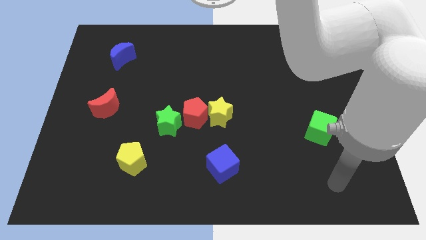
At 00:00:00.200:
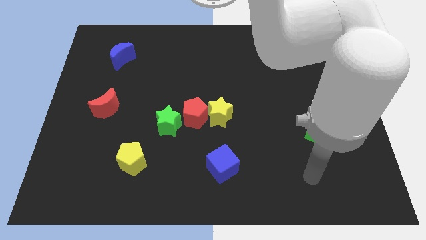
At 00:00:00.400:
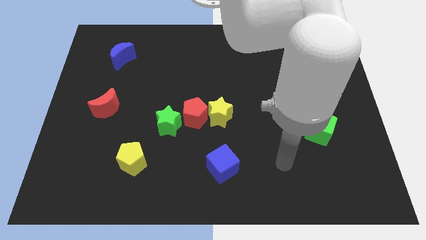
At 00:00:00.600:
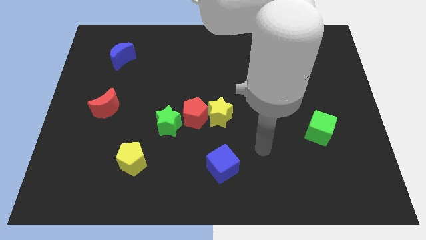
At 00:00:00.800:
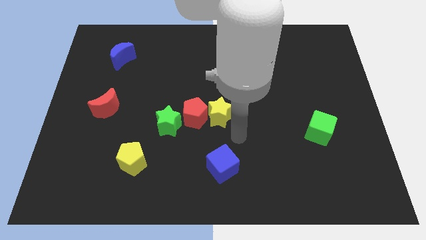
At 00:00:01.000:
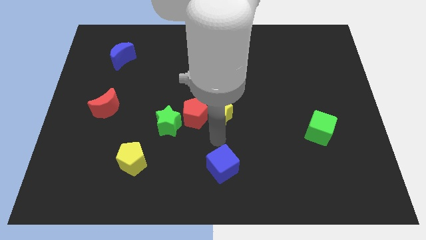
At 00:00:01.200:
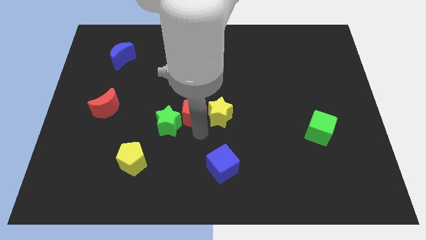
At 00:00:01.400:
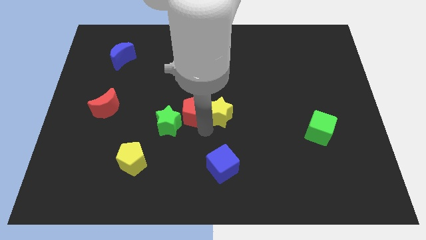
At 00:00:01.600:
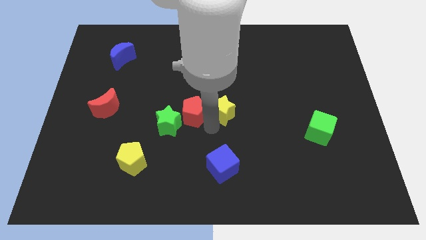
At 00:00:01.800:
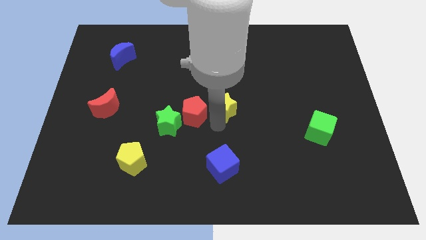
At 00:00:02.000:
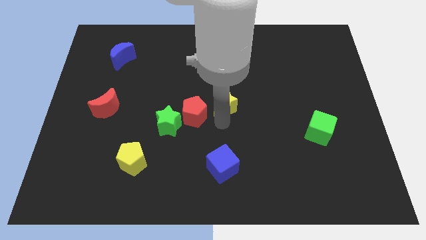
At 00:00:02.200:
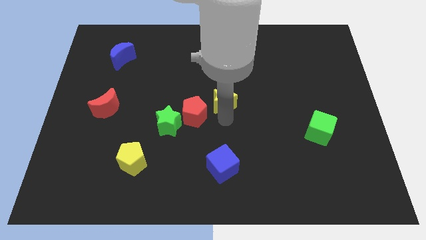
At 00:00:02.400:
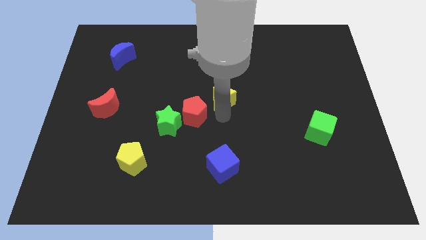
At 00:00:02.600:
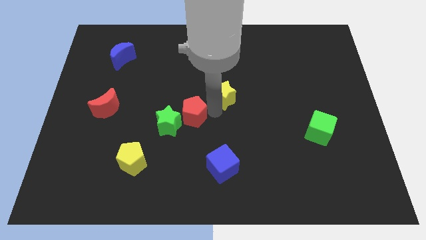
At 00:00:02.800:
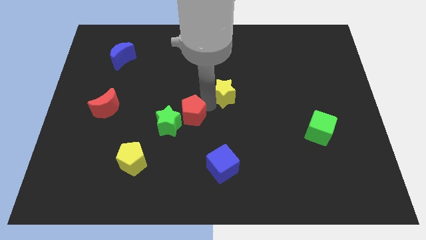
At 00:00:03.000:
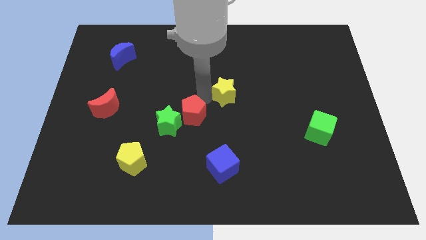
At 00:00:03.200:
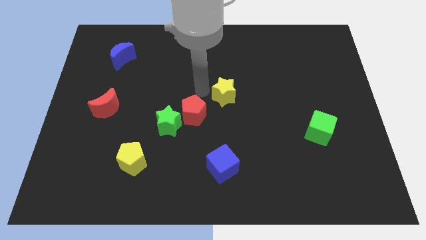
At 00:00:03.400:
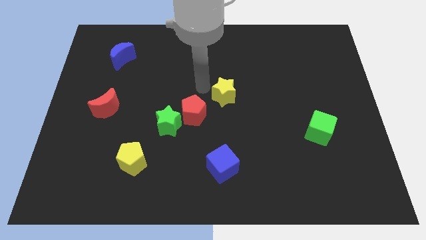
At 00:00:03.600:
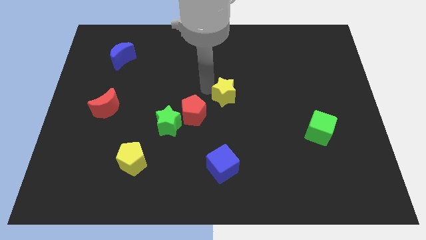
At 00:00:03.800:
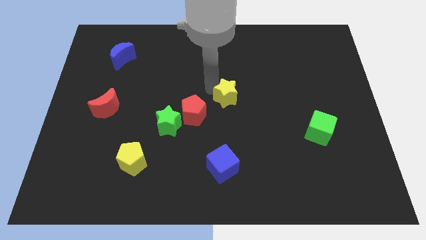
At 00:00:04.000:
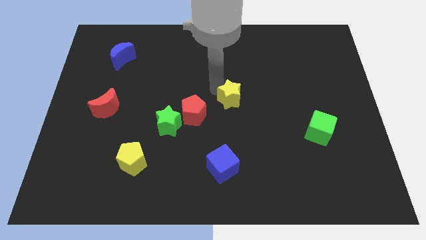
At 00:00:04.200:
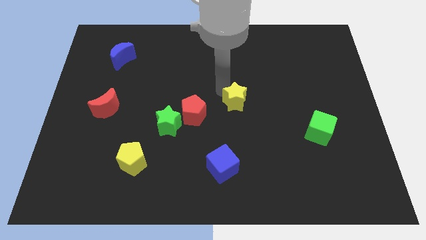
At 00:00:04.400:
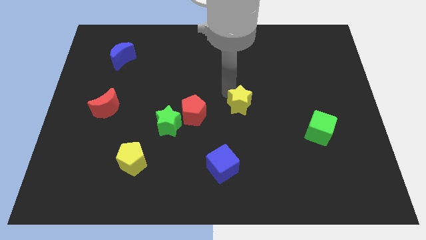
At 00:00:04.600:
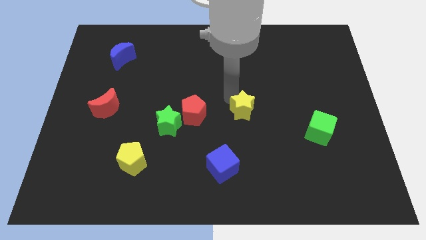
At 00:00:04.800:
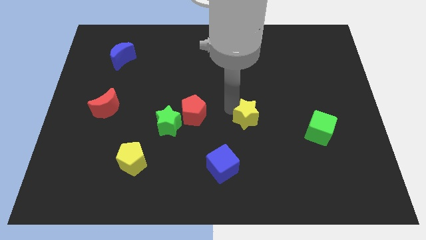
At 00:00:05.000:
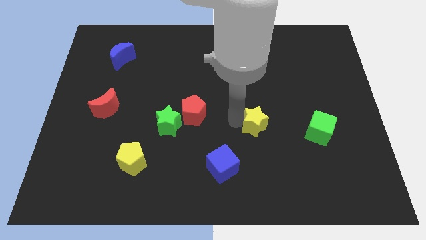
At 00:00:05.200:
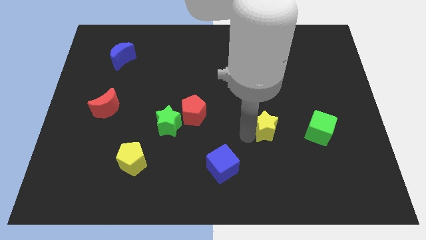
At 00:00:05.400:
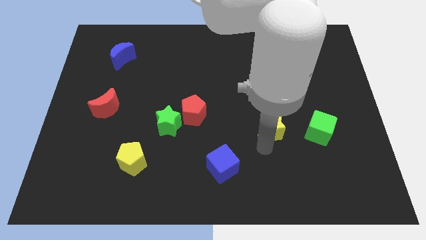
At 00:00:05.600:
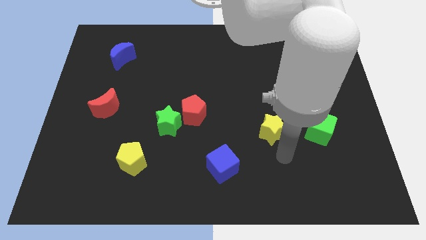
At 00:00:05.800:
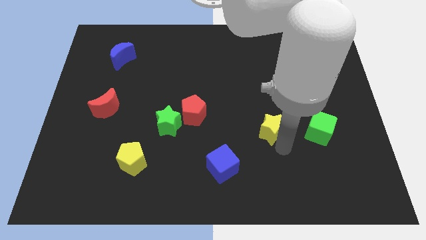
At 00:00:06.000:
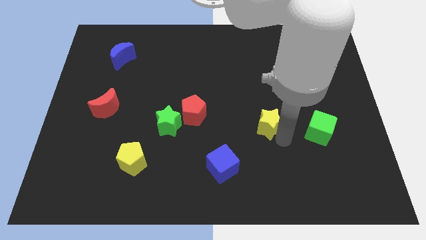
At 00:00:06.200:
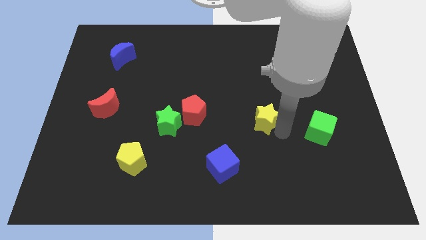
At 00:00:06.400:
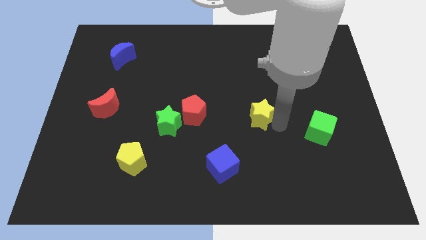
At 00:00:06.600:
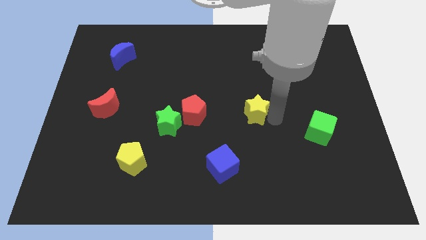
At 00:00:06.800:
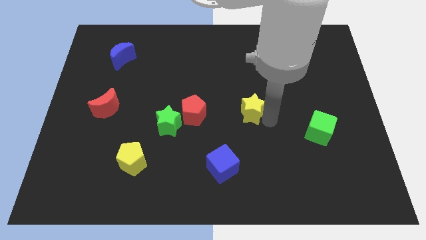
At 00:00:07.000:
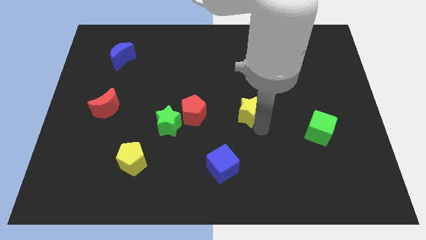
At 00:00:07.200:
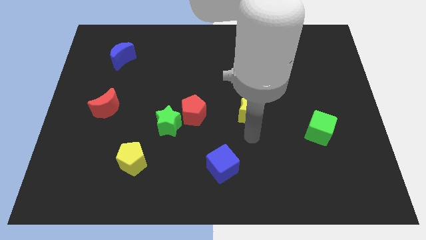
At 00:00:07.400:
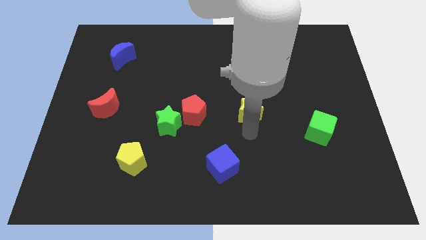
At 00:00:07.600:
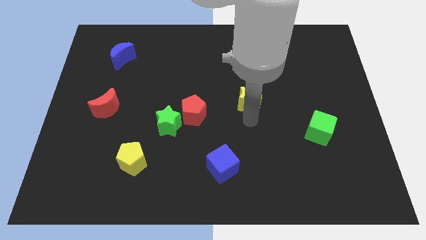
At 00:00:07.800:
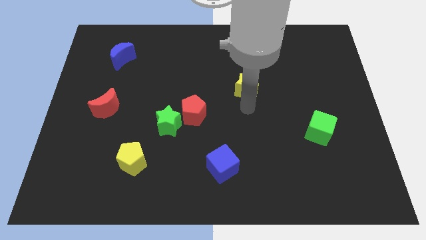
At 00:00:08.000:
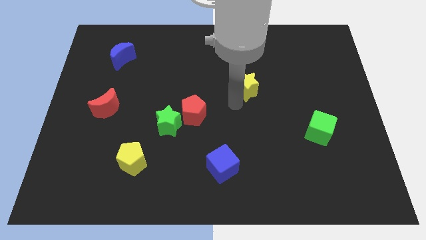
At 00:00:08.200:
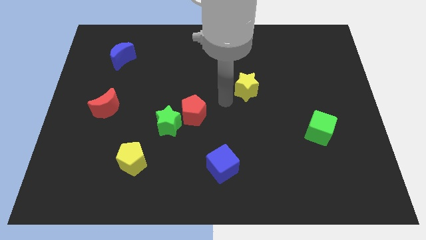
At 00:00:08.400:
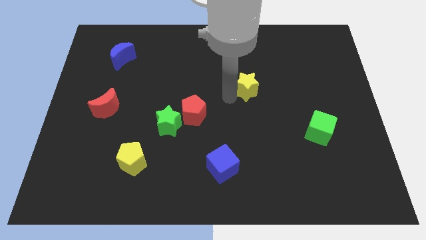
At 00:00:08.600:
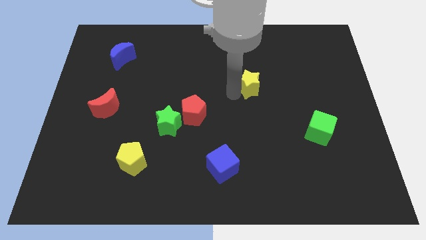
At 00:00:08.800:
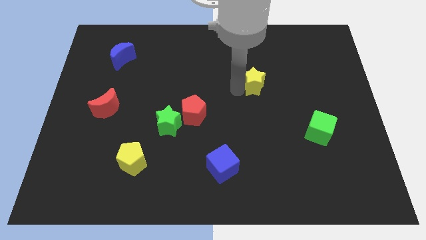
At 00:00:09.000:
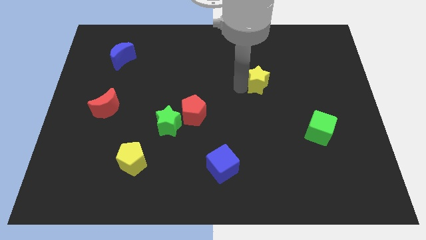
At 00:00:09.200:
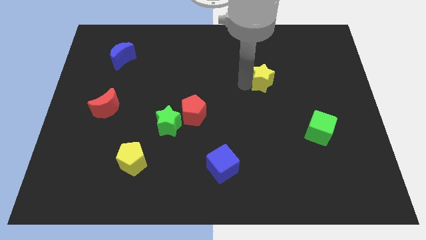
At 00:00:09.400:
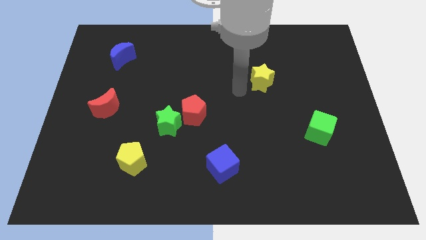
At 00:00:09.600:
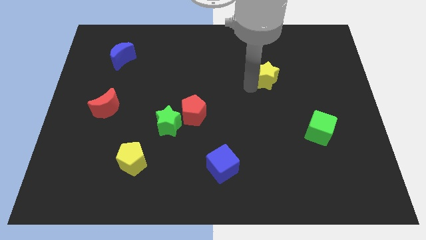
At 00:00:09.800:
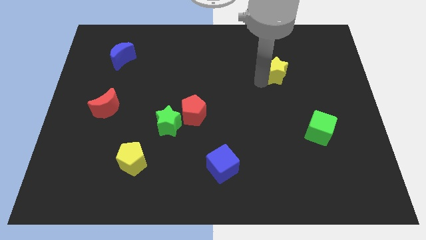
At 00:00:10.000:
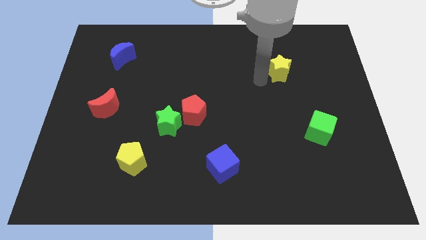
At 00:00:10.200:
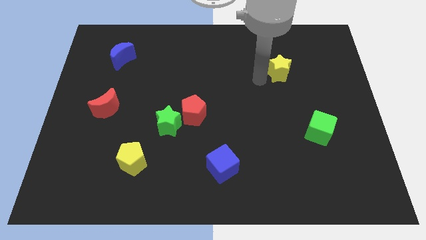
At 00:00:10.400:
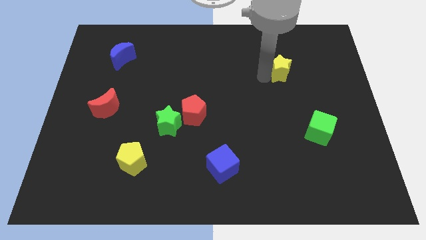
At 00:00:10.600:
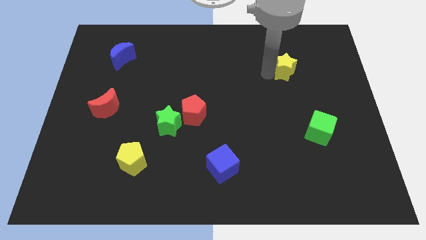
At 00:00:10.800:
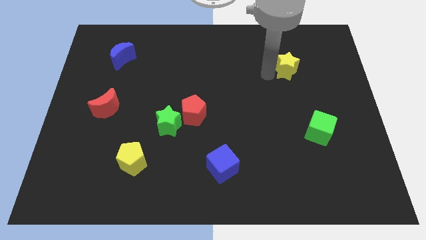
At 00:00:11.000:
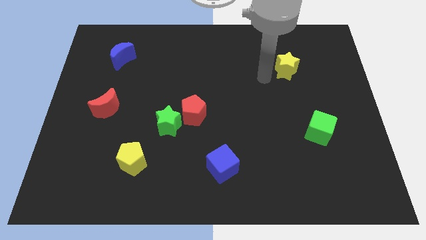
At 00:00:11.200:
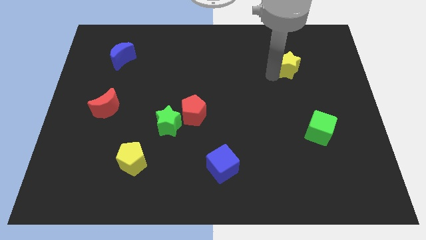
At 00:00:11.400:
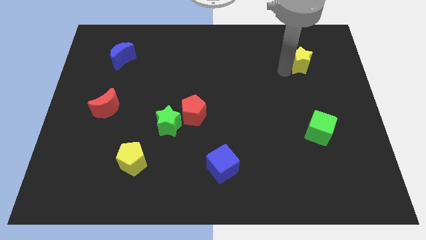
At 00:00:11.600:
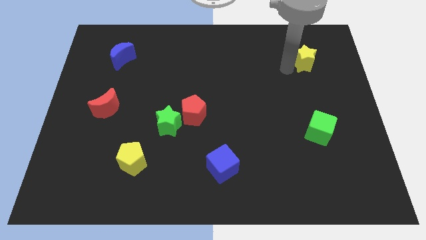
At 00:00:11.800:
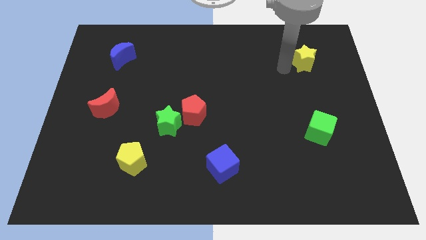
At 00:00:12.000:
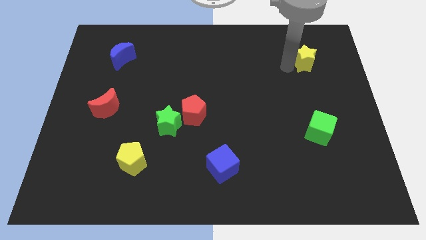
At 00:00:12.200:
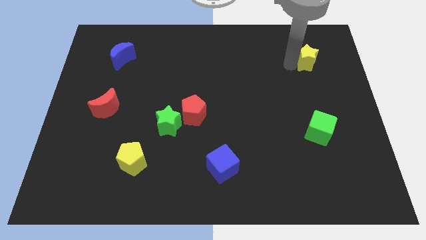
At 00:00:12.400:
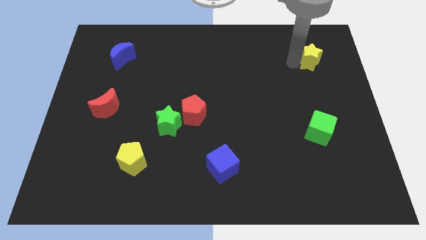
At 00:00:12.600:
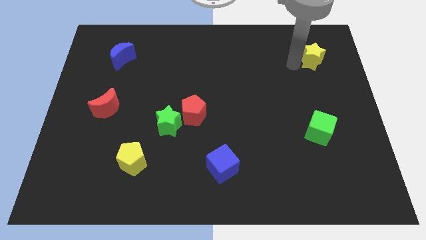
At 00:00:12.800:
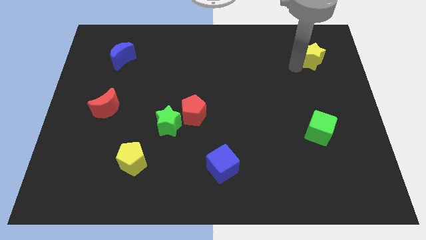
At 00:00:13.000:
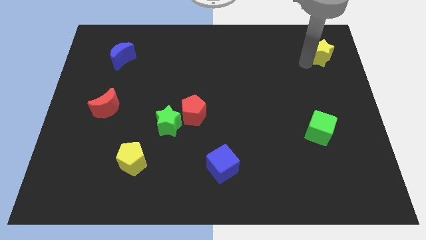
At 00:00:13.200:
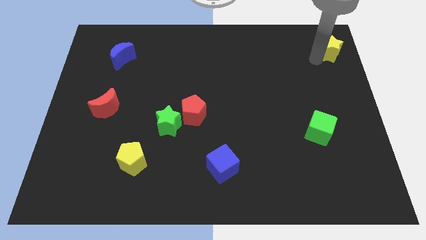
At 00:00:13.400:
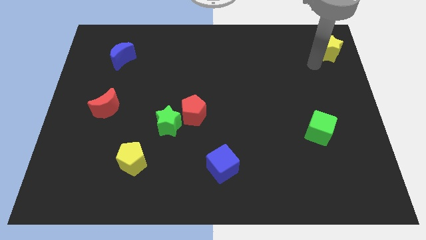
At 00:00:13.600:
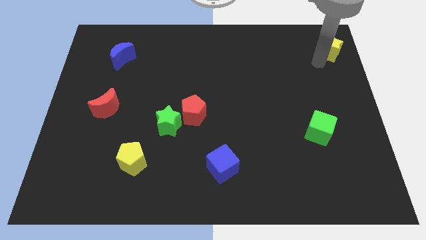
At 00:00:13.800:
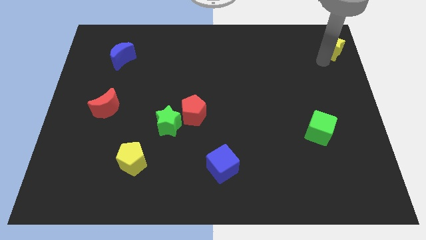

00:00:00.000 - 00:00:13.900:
push the yellow star to the top right corner
